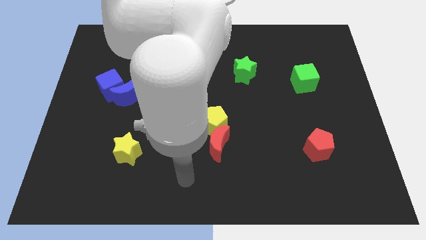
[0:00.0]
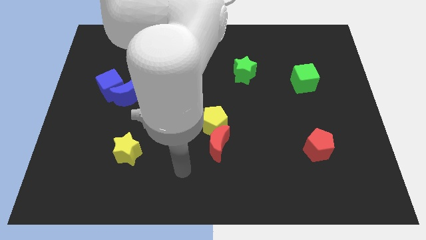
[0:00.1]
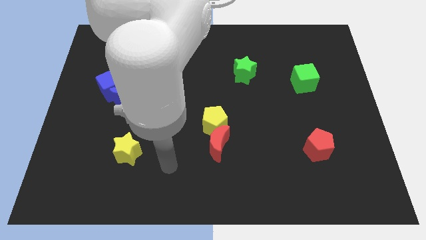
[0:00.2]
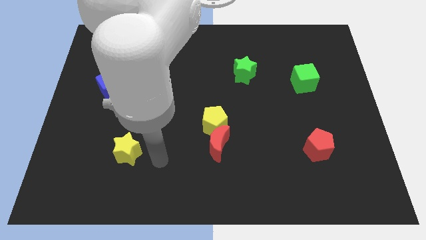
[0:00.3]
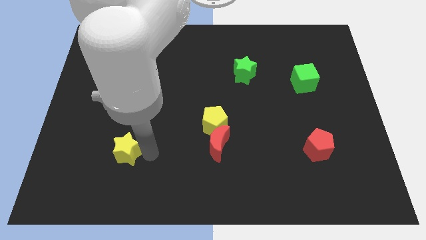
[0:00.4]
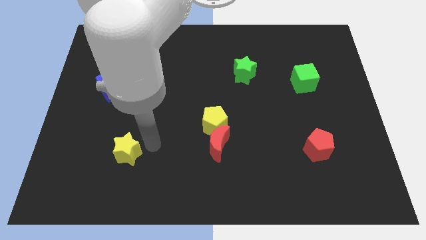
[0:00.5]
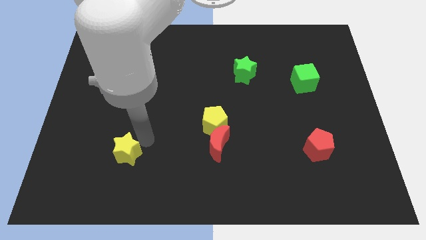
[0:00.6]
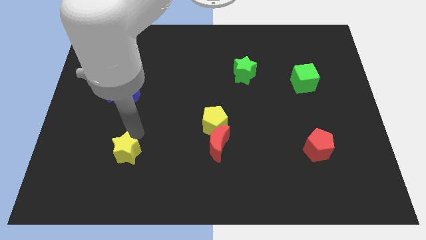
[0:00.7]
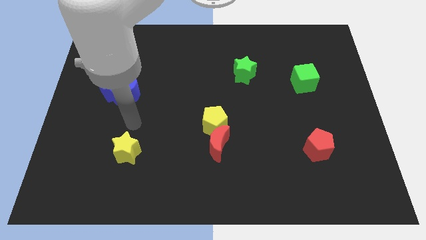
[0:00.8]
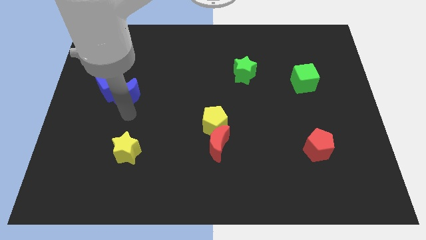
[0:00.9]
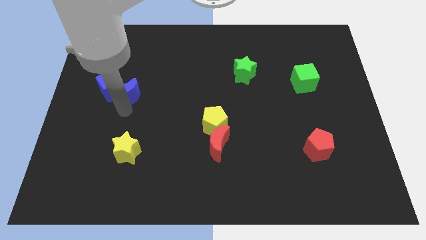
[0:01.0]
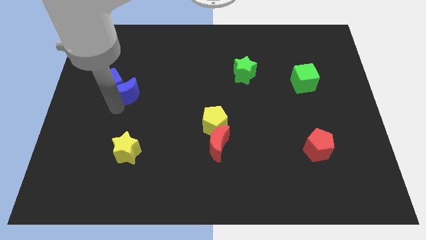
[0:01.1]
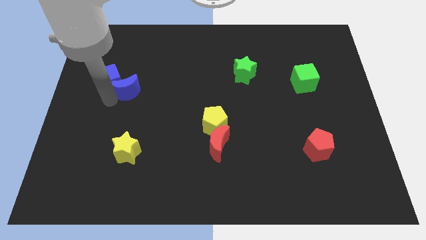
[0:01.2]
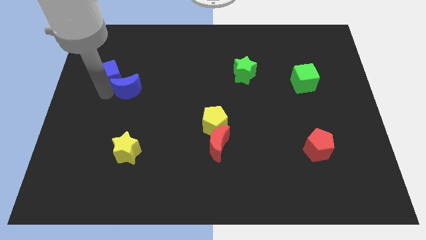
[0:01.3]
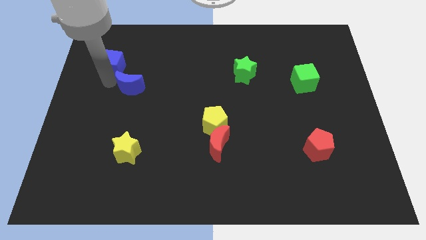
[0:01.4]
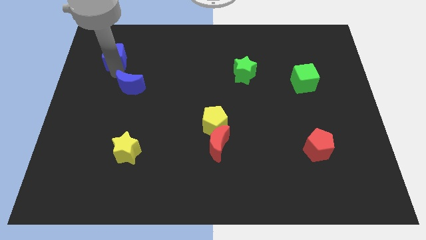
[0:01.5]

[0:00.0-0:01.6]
pull the blue moon apart from the blue cube

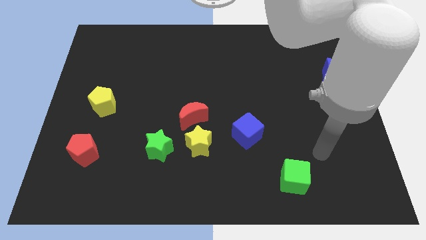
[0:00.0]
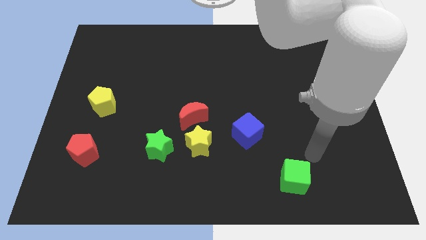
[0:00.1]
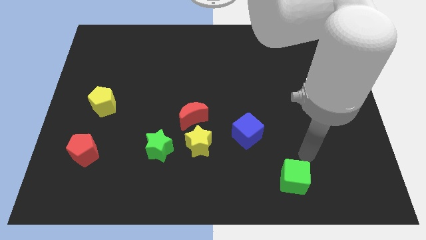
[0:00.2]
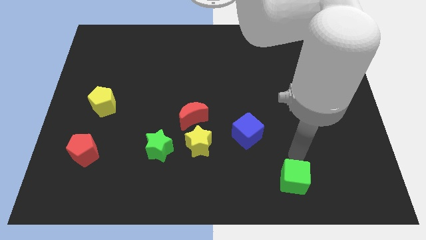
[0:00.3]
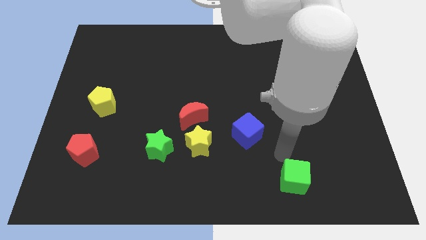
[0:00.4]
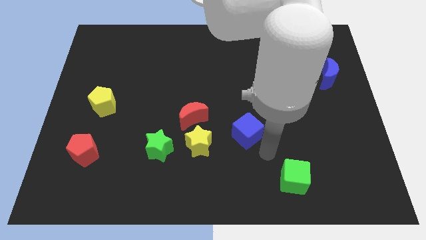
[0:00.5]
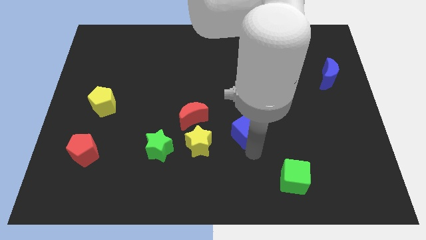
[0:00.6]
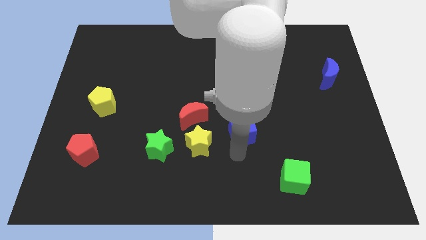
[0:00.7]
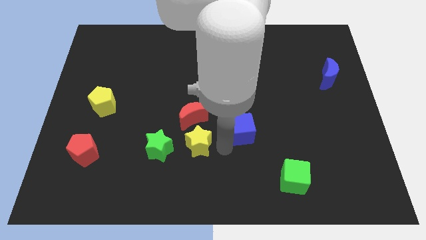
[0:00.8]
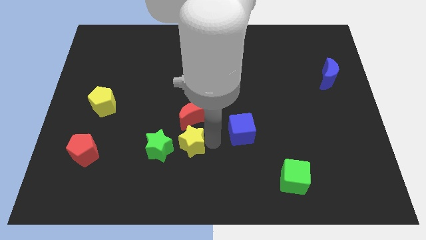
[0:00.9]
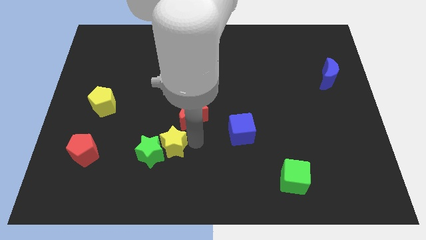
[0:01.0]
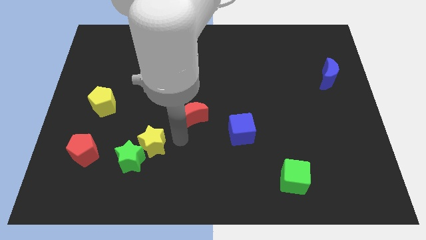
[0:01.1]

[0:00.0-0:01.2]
pull the red moon apart from the yellow star

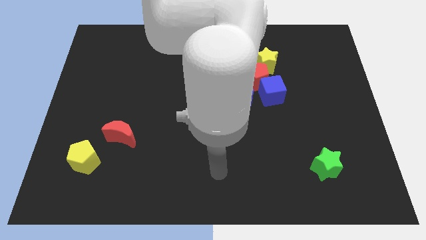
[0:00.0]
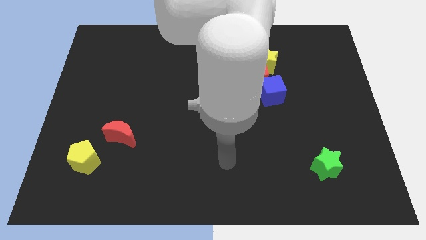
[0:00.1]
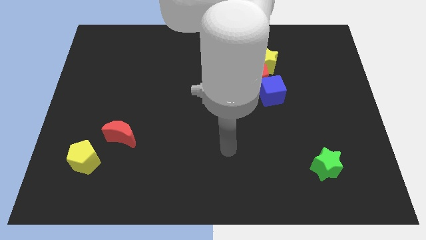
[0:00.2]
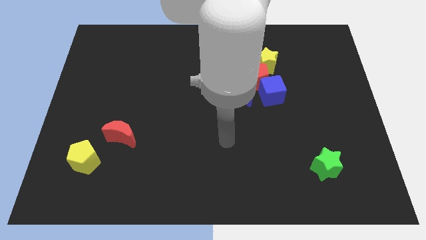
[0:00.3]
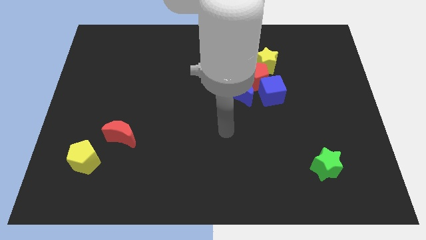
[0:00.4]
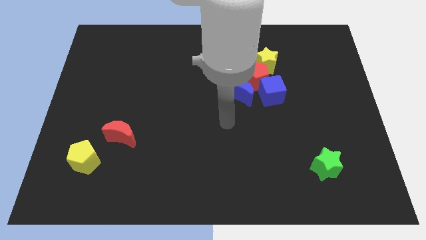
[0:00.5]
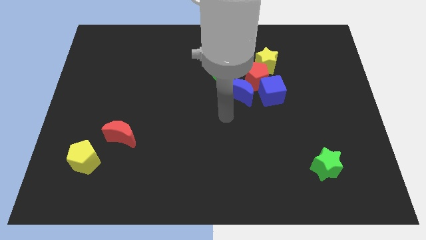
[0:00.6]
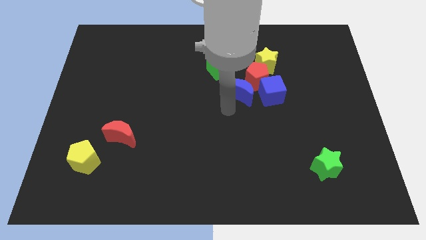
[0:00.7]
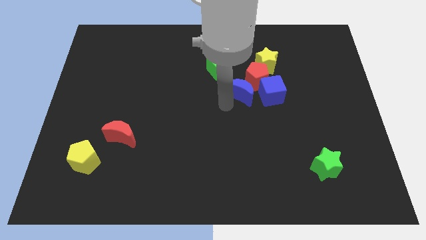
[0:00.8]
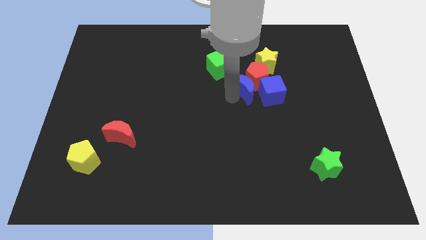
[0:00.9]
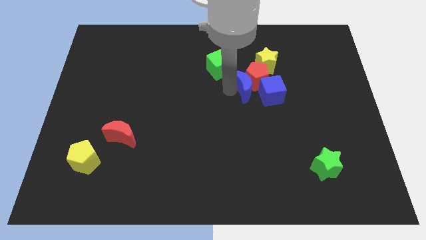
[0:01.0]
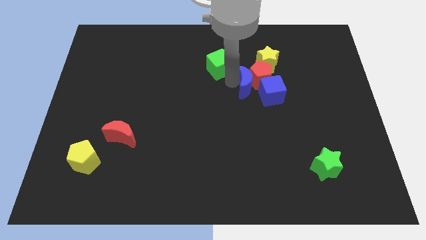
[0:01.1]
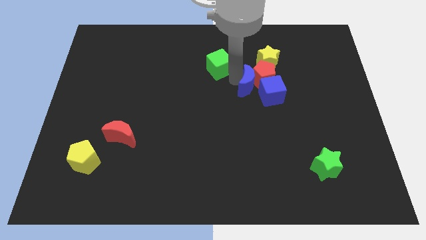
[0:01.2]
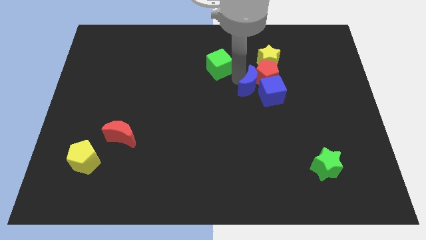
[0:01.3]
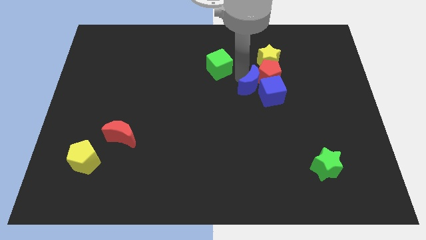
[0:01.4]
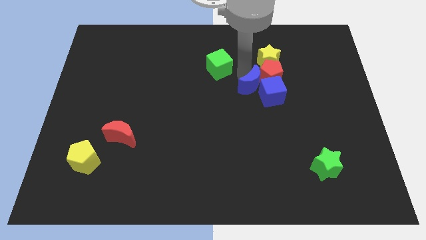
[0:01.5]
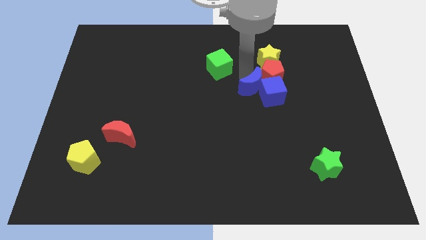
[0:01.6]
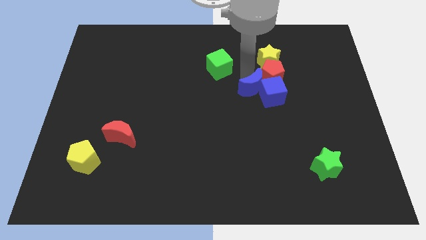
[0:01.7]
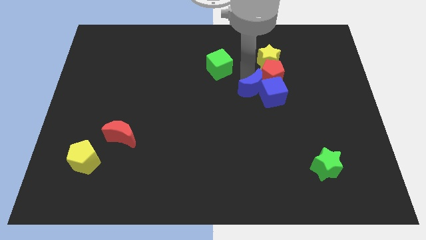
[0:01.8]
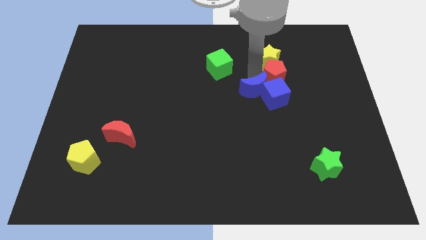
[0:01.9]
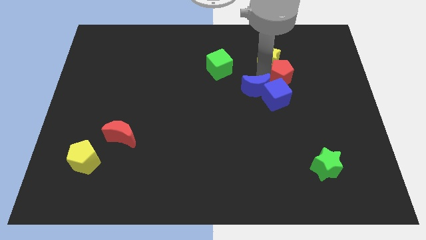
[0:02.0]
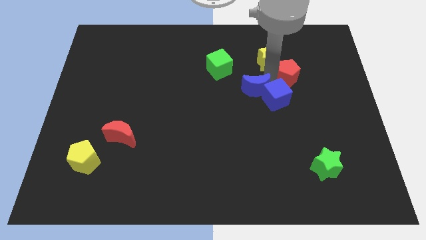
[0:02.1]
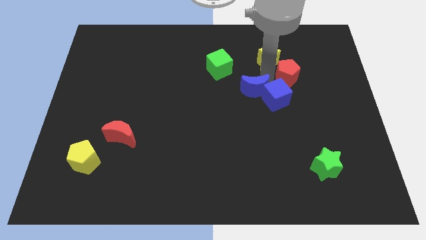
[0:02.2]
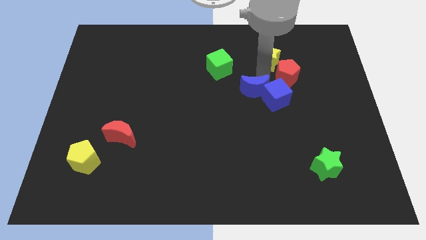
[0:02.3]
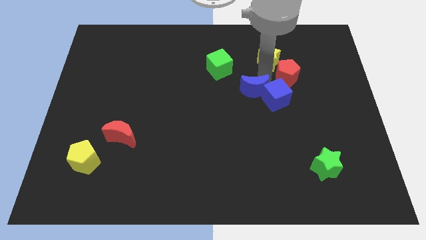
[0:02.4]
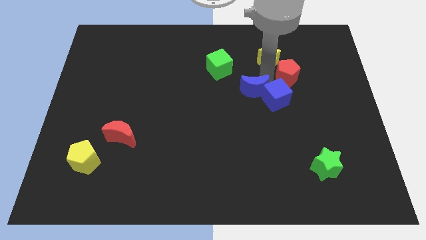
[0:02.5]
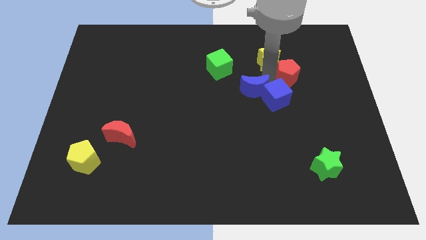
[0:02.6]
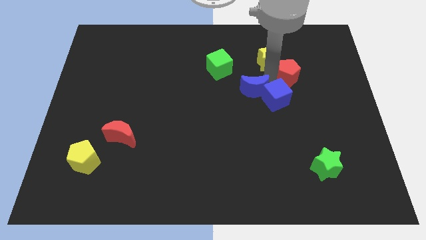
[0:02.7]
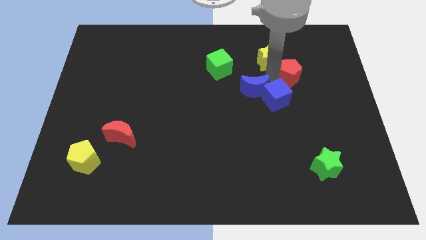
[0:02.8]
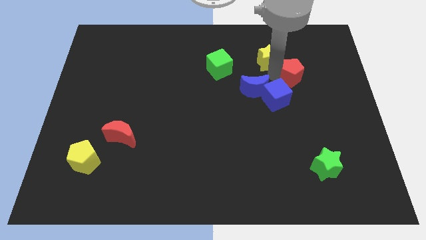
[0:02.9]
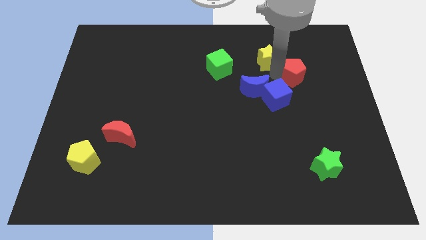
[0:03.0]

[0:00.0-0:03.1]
separate the red pentagon from the clump

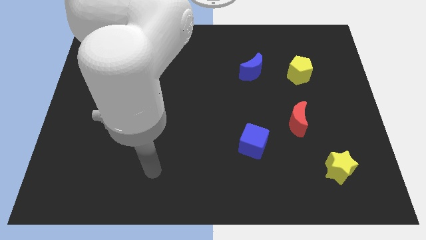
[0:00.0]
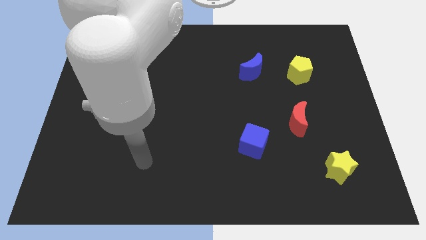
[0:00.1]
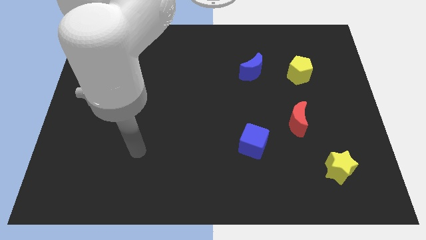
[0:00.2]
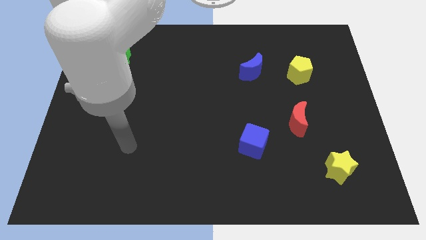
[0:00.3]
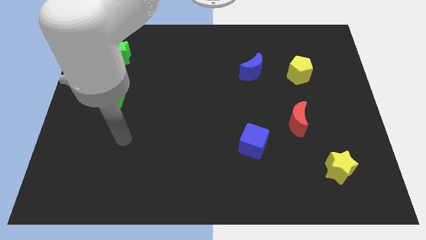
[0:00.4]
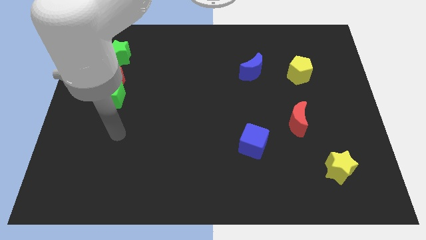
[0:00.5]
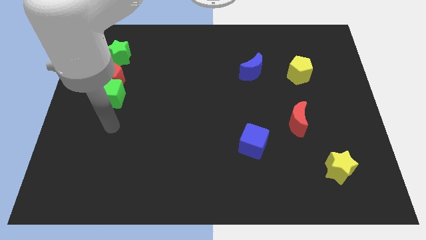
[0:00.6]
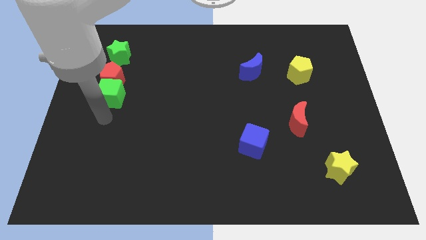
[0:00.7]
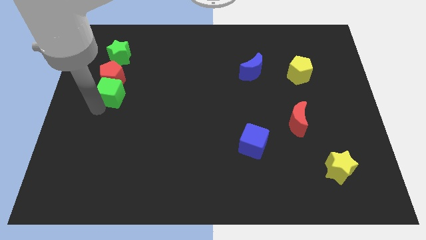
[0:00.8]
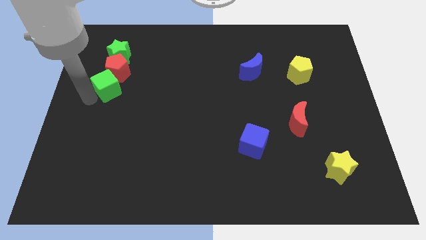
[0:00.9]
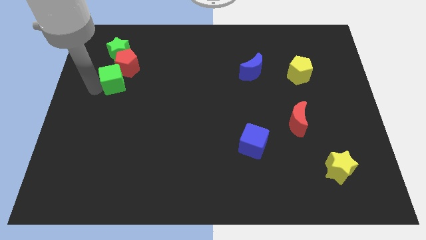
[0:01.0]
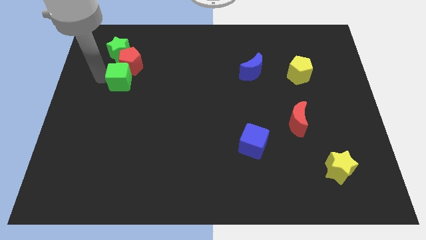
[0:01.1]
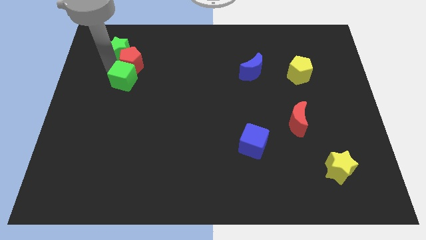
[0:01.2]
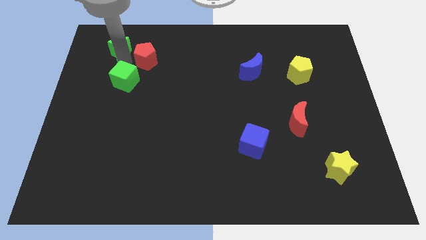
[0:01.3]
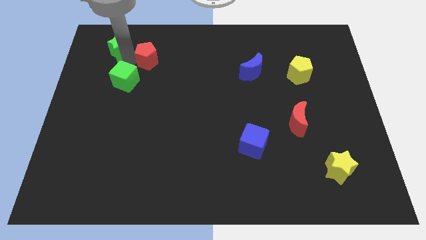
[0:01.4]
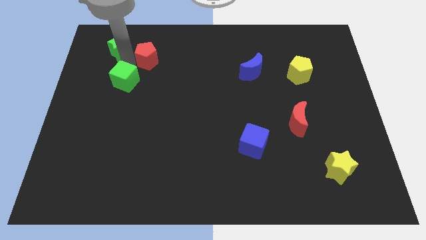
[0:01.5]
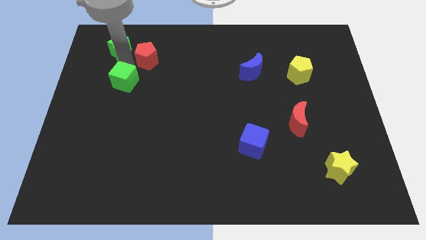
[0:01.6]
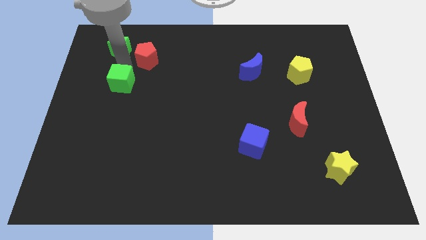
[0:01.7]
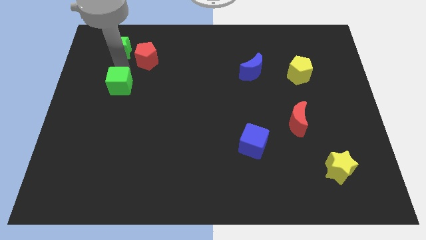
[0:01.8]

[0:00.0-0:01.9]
move the green cube away from the red pentagon

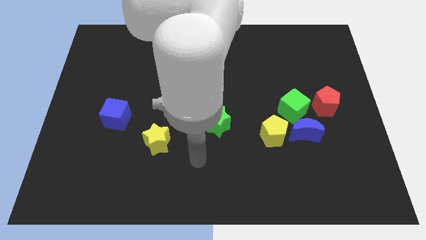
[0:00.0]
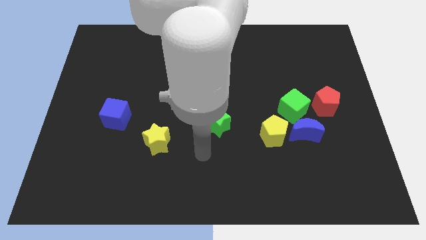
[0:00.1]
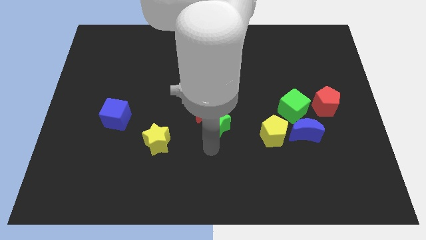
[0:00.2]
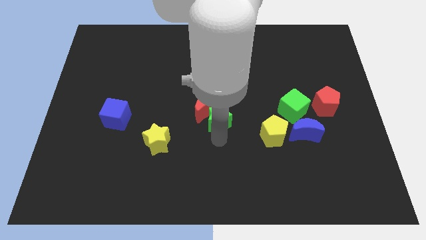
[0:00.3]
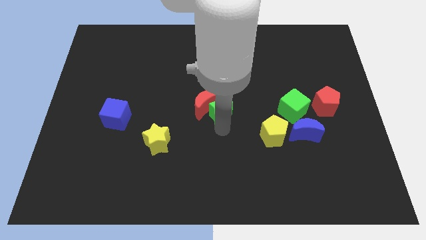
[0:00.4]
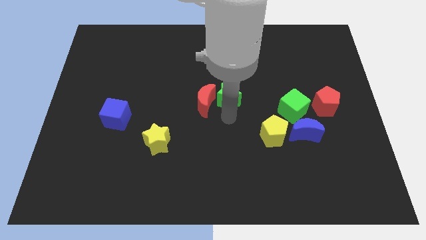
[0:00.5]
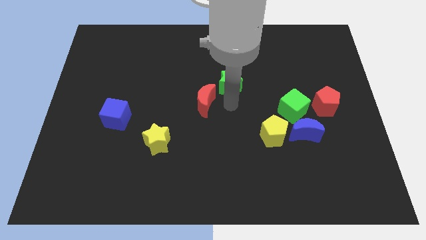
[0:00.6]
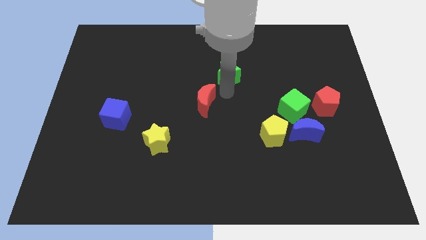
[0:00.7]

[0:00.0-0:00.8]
separate the red moon from the green star

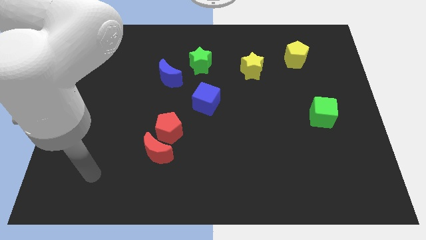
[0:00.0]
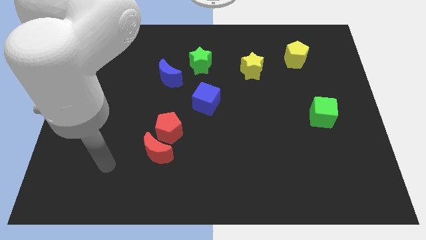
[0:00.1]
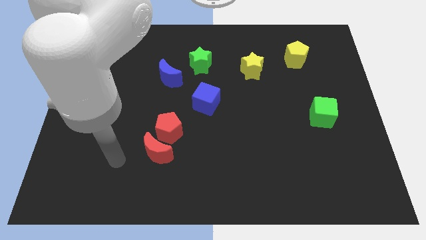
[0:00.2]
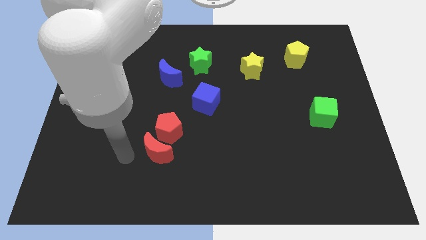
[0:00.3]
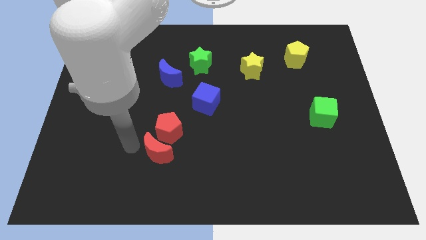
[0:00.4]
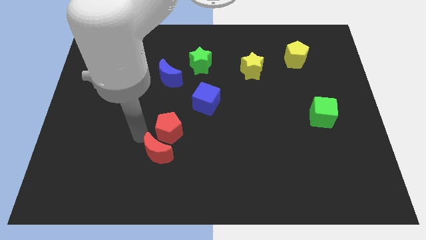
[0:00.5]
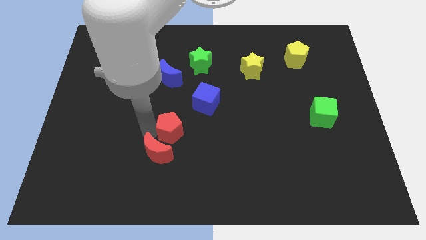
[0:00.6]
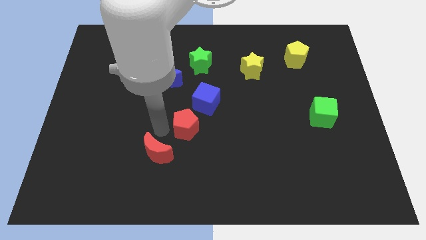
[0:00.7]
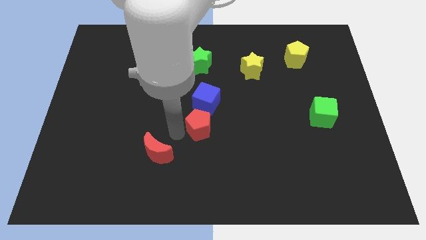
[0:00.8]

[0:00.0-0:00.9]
separate the red moon from the red pentagon

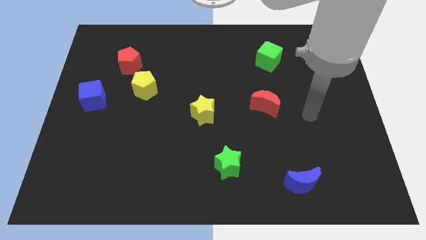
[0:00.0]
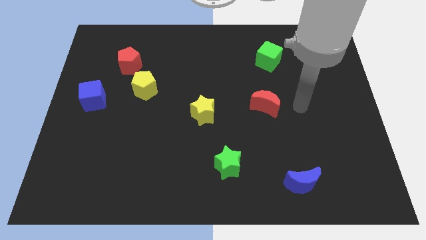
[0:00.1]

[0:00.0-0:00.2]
separate the red pentagon from the yellow pentagon
